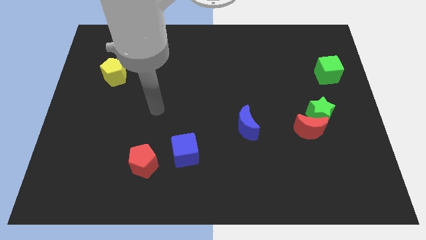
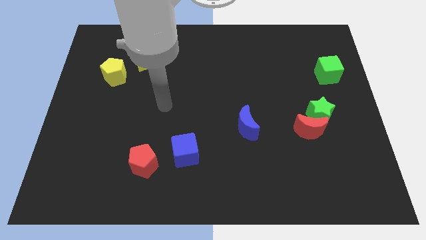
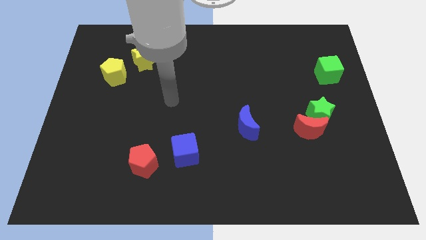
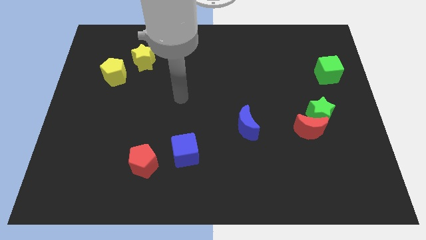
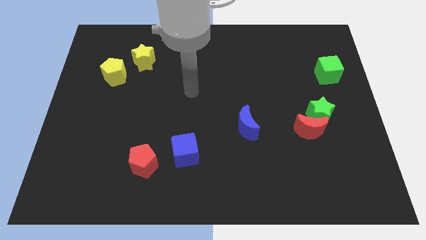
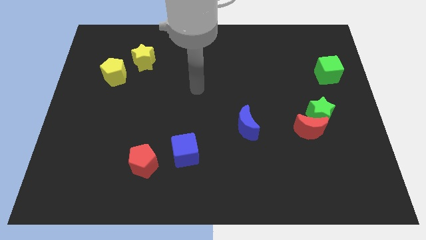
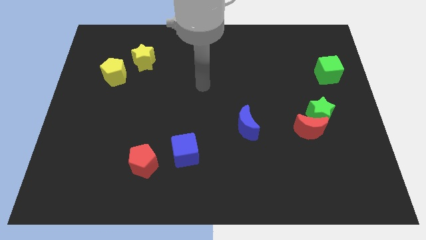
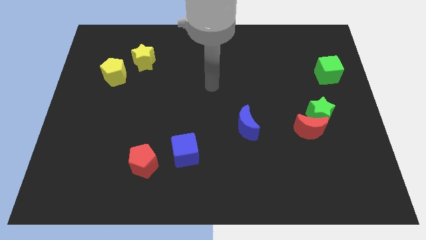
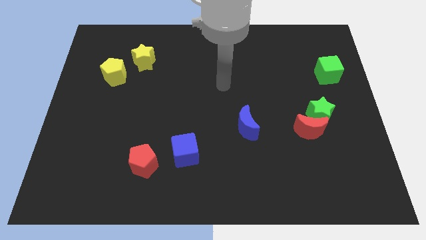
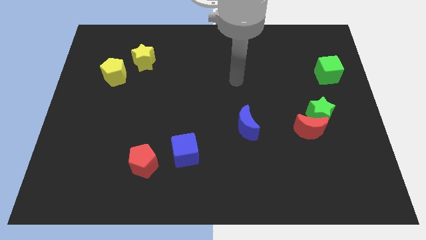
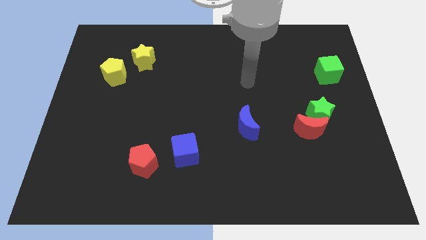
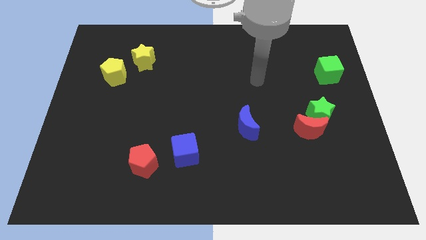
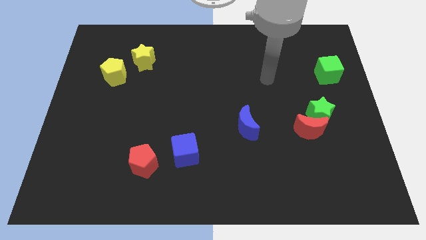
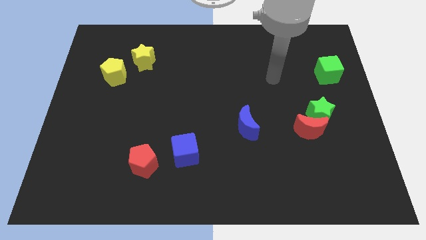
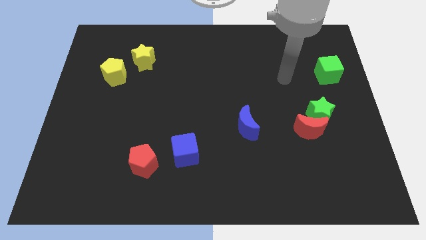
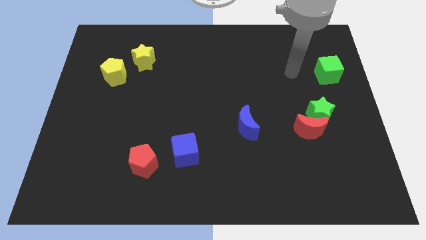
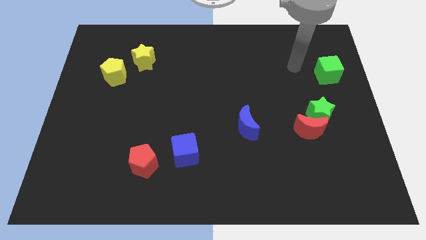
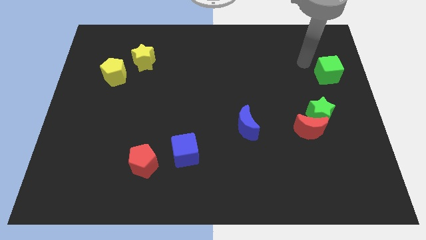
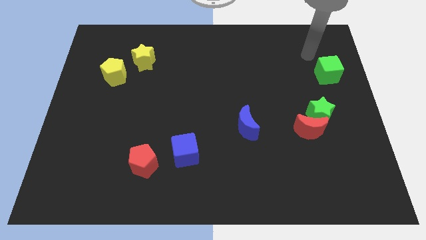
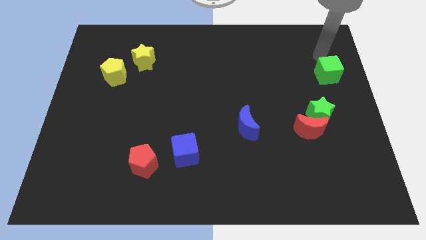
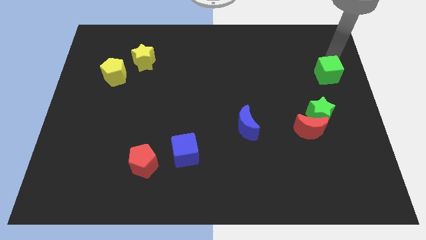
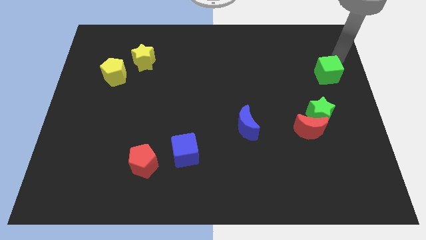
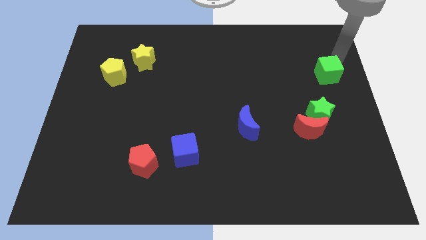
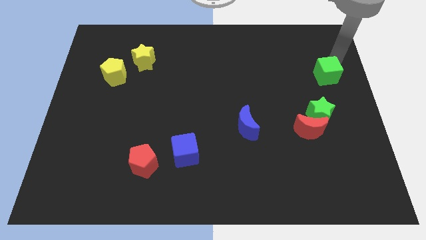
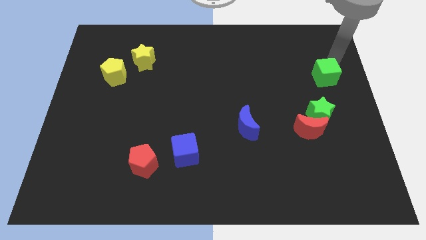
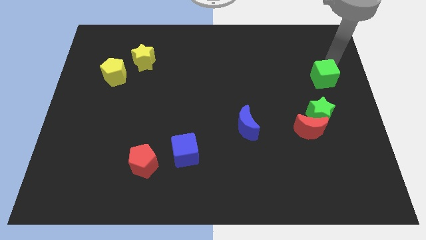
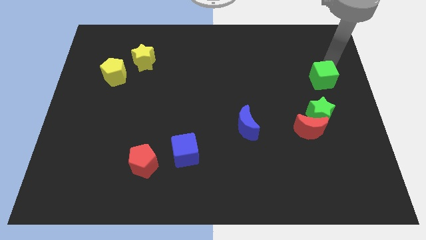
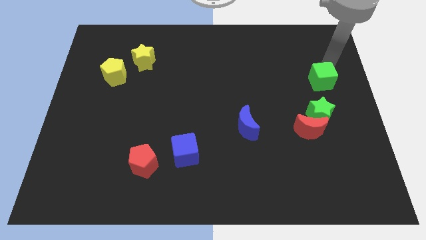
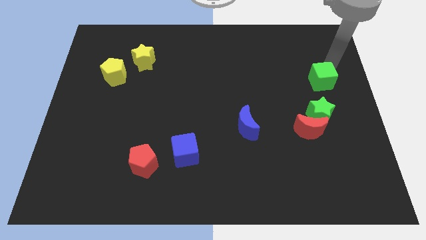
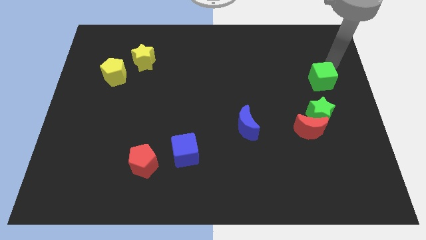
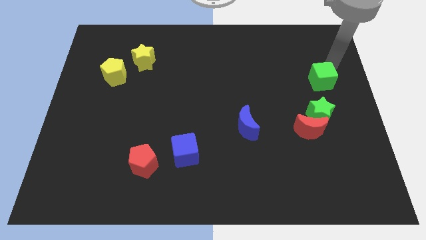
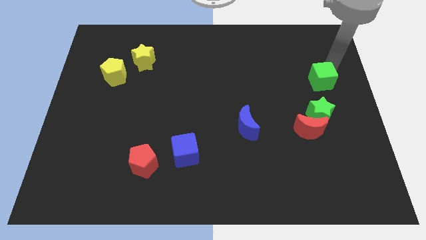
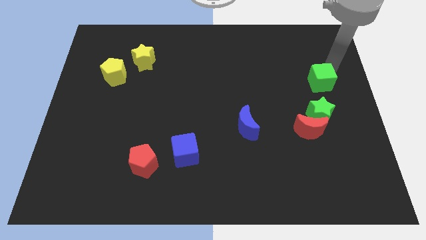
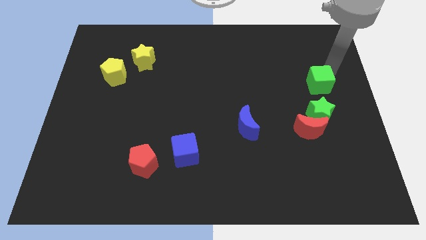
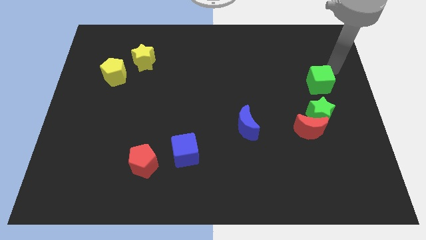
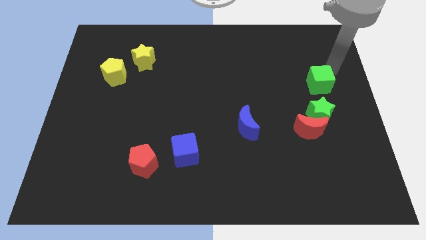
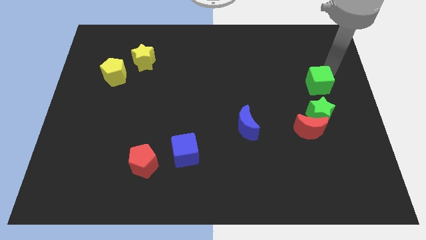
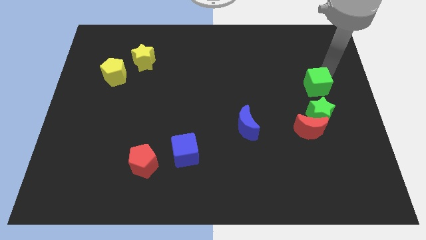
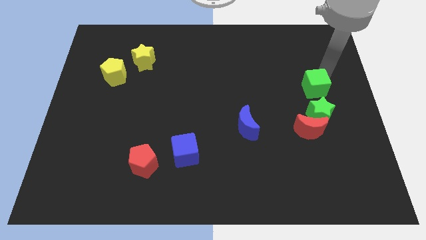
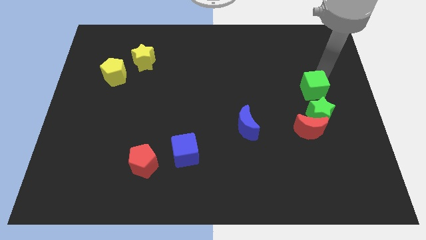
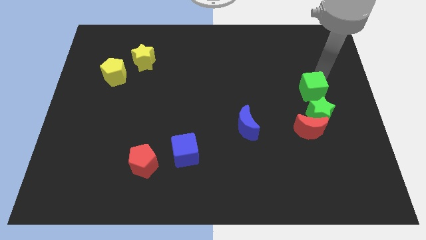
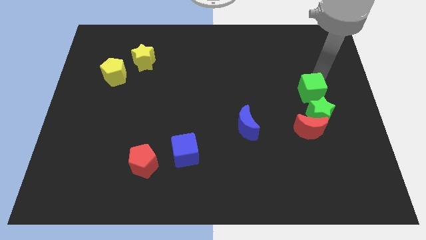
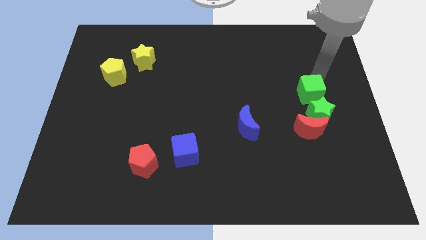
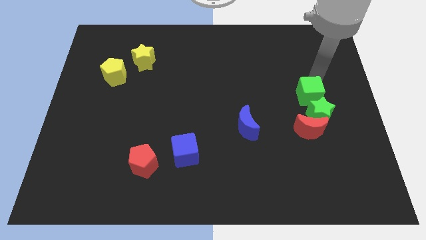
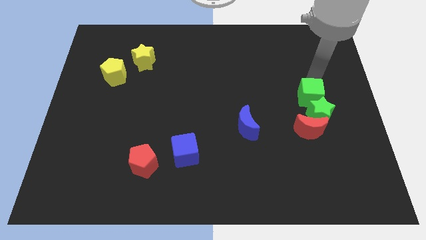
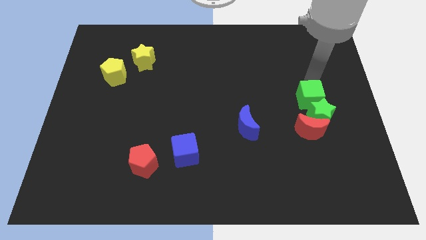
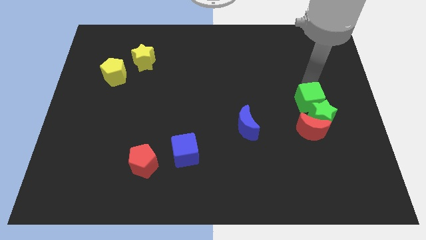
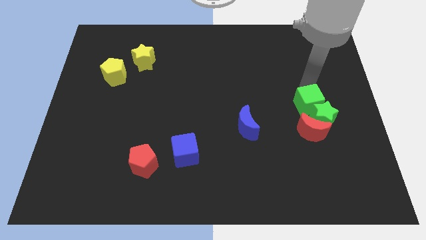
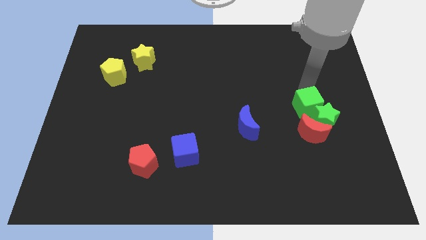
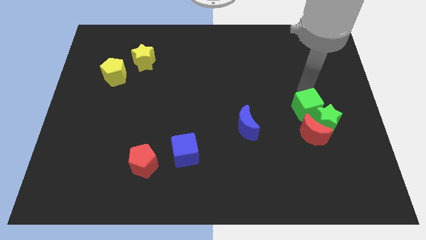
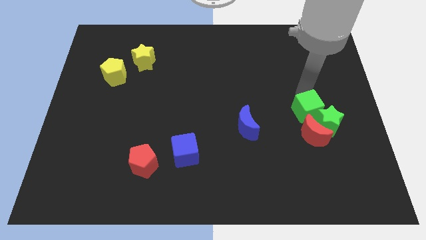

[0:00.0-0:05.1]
slide the green cube diagonally up and to the left of the red moon

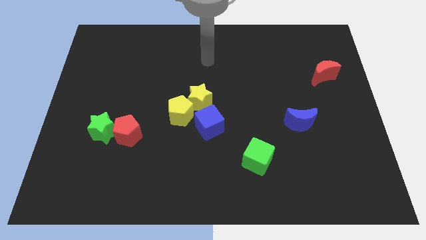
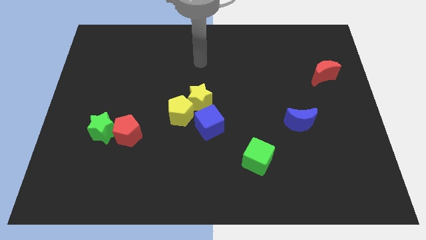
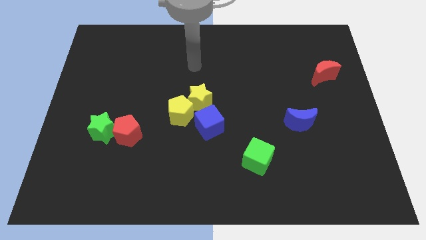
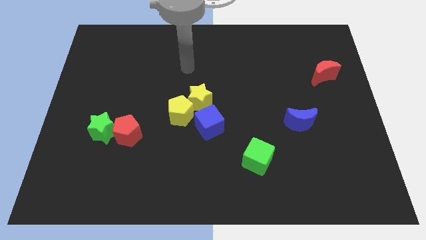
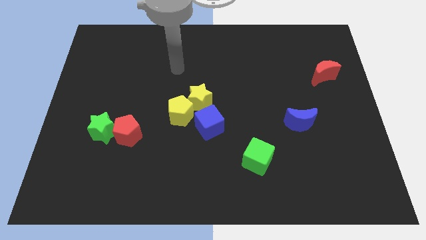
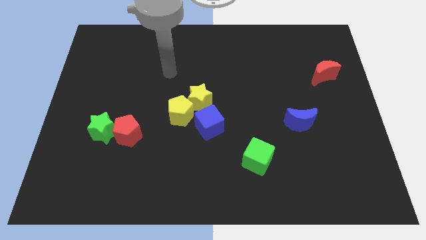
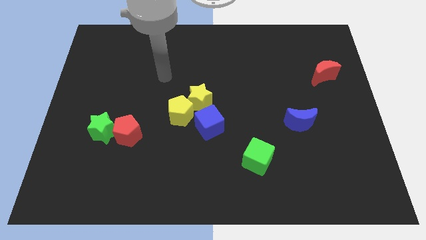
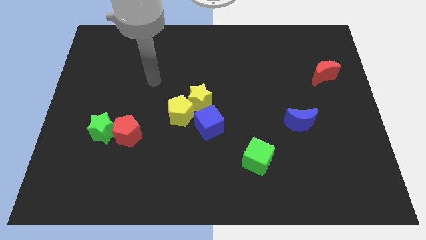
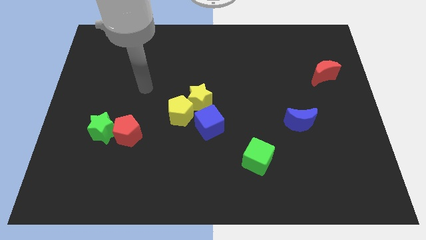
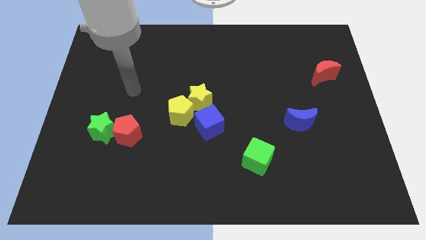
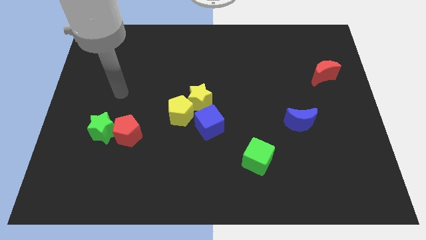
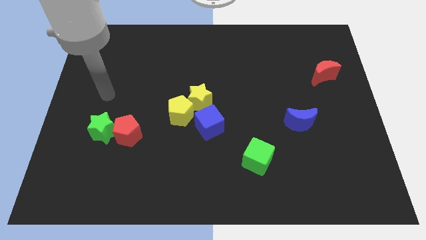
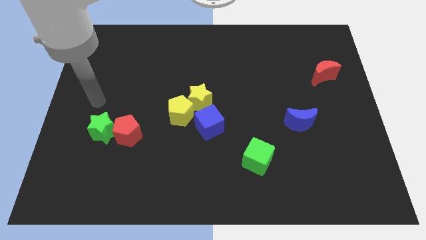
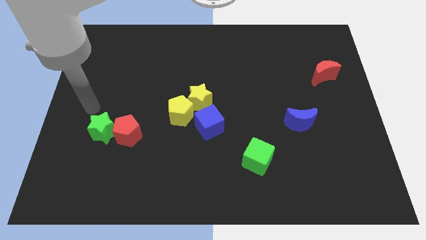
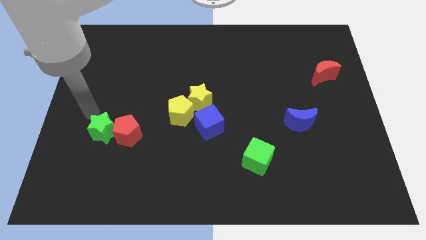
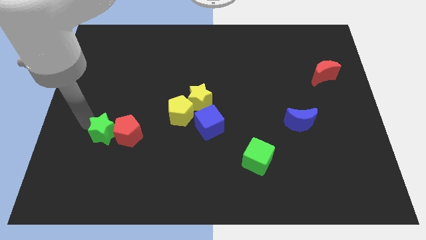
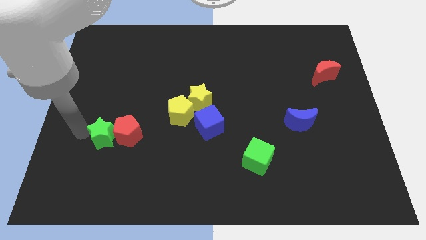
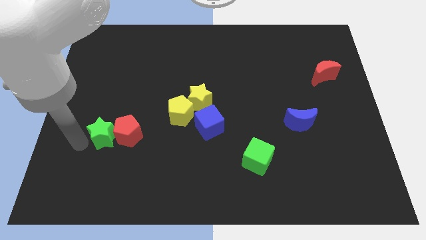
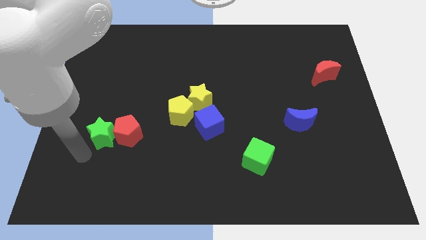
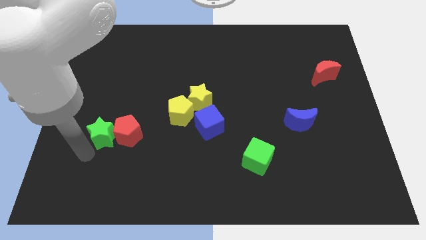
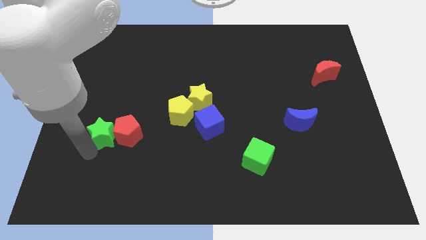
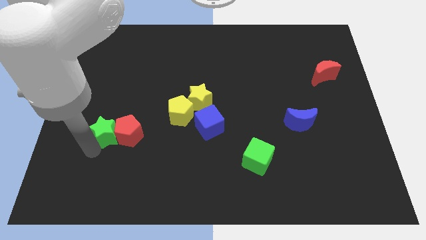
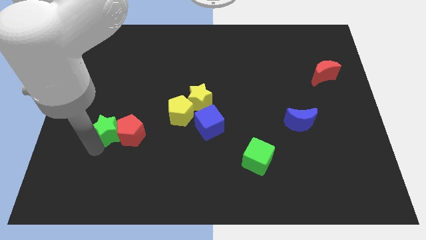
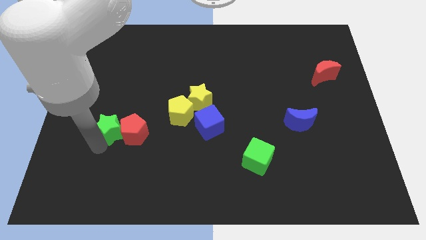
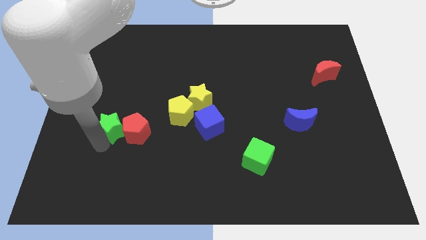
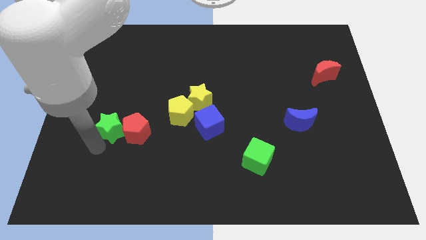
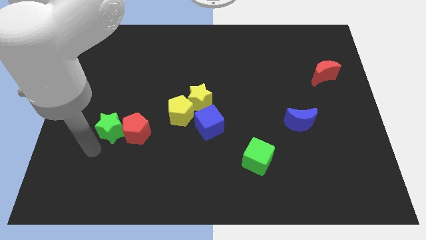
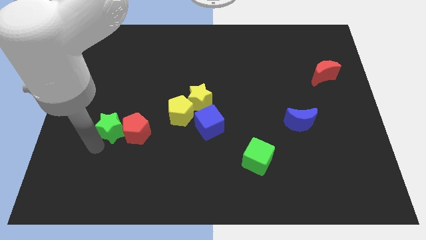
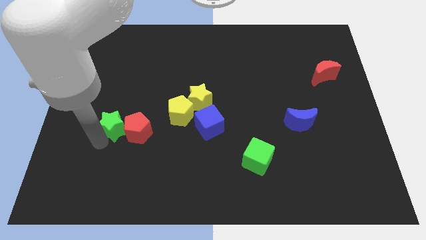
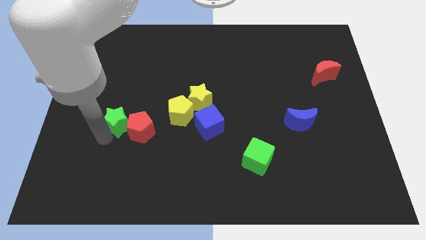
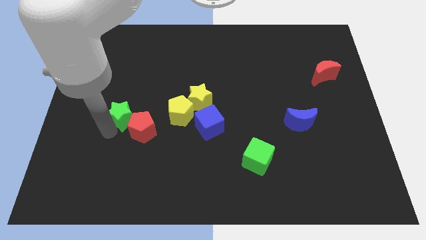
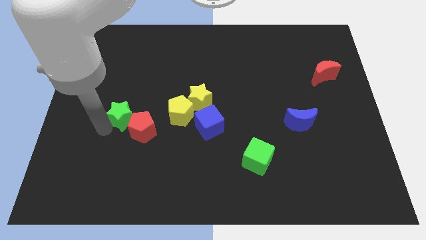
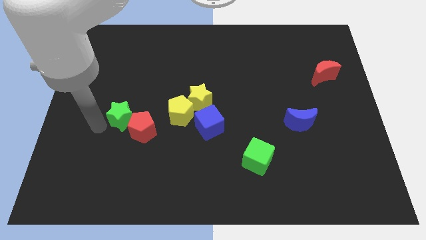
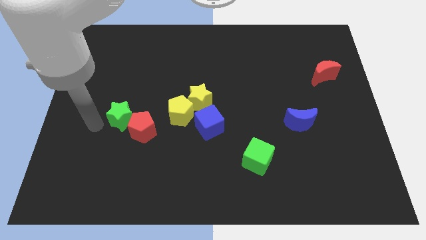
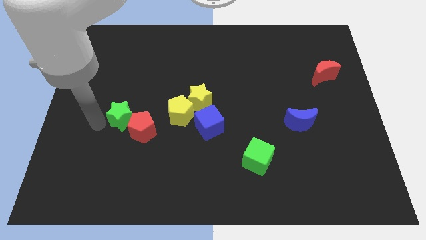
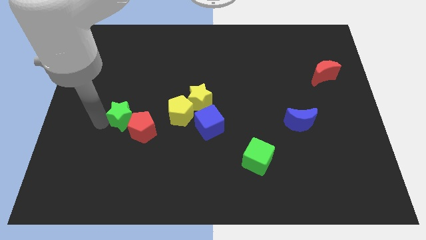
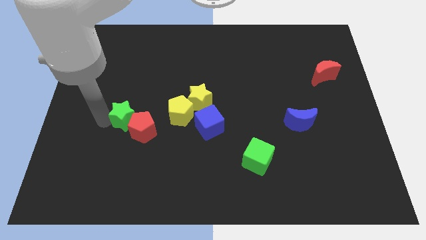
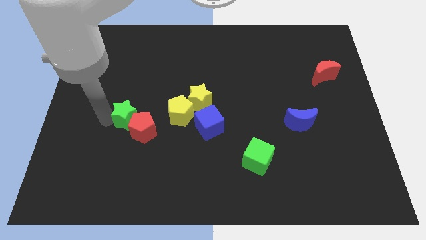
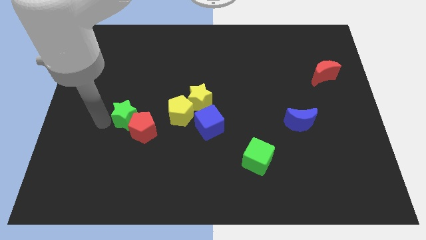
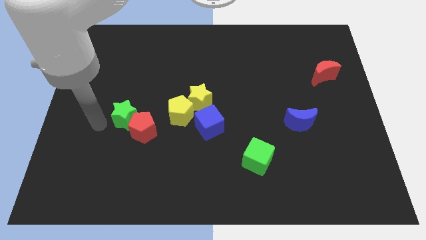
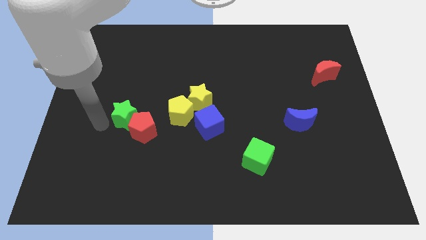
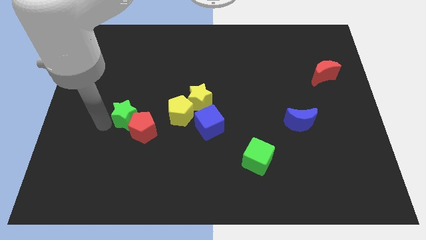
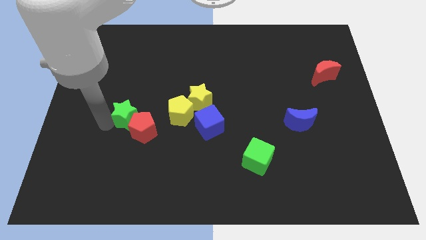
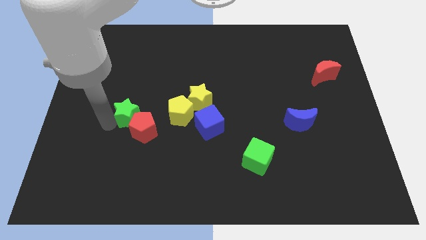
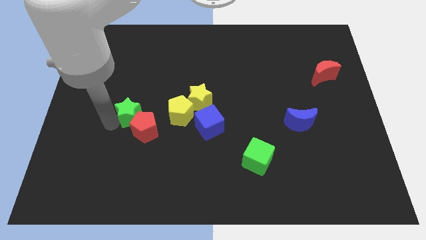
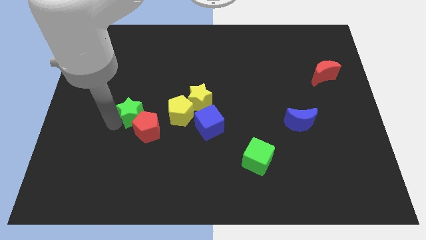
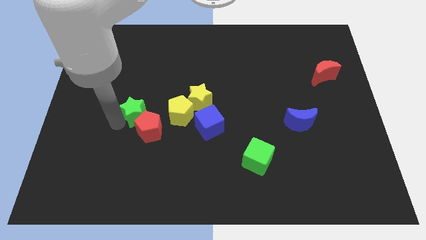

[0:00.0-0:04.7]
move the green star just left of the yellow star
